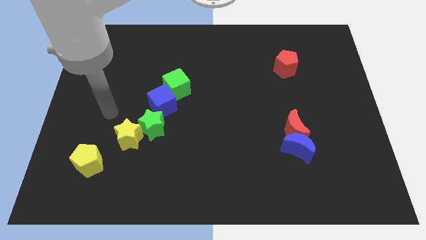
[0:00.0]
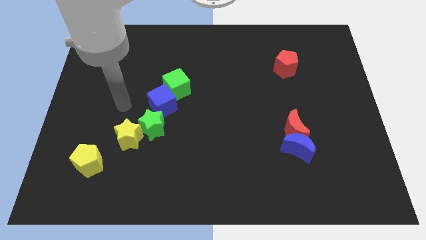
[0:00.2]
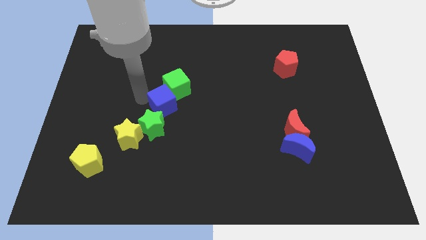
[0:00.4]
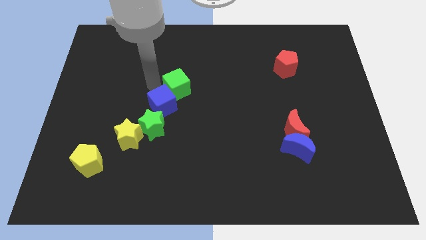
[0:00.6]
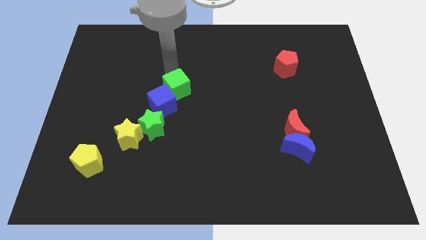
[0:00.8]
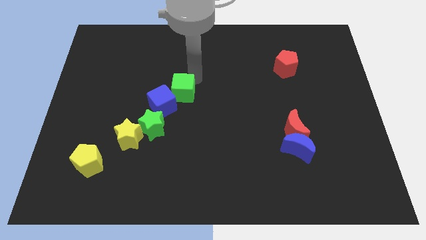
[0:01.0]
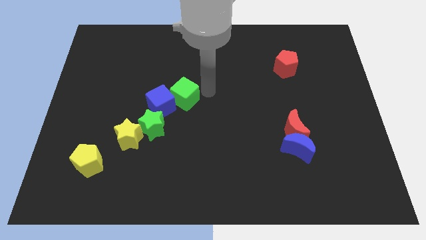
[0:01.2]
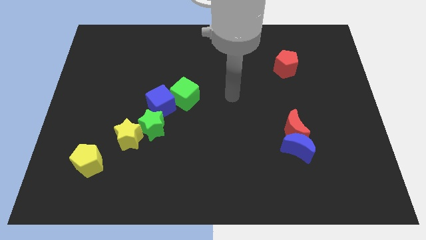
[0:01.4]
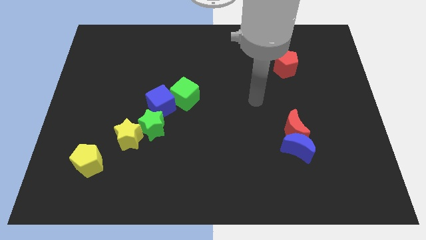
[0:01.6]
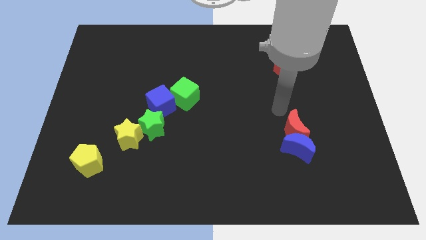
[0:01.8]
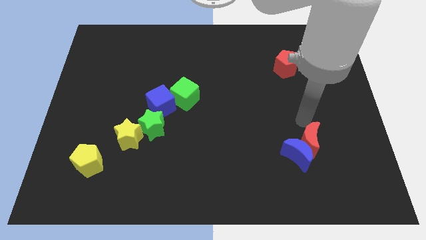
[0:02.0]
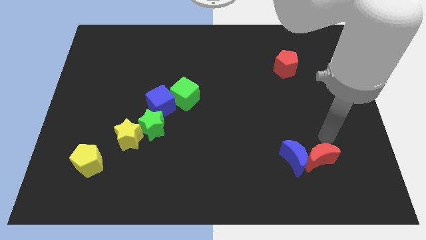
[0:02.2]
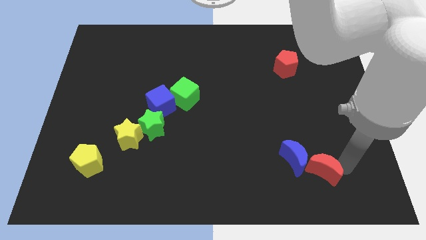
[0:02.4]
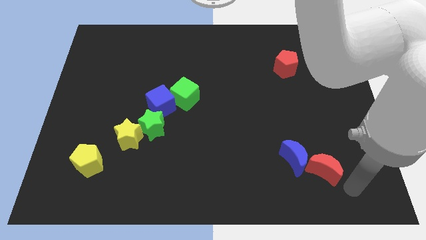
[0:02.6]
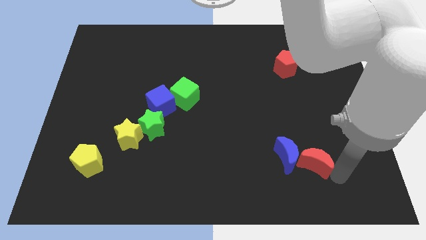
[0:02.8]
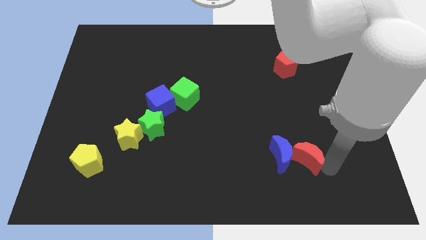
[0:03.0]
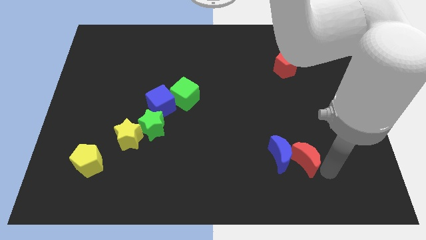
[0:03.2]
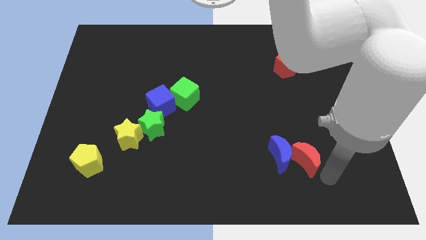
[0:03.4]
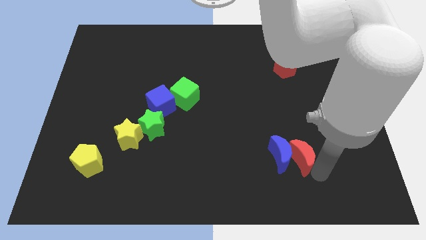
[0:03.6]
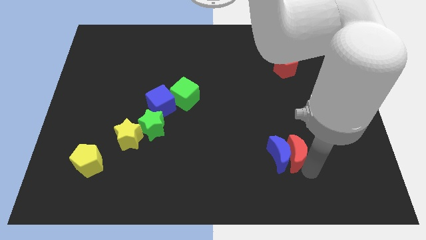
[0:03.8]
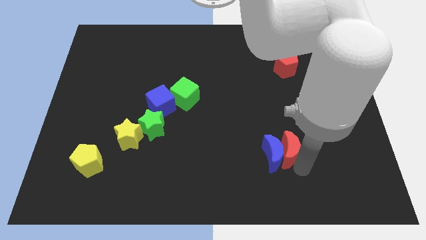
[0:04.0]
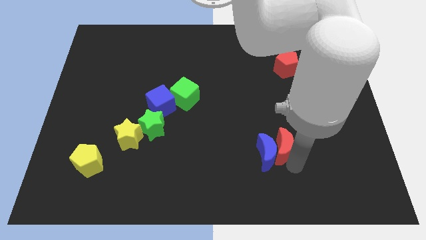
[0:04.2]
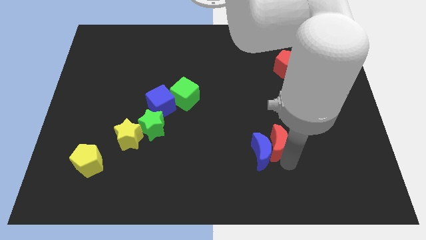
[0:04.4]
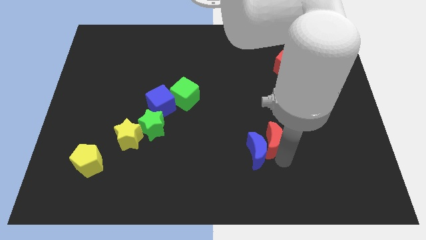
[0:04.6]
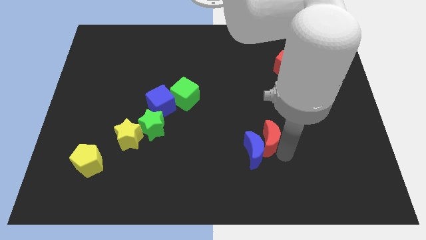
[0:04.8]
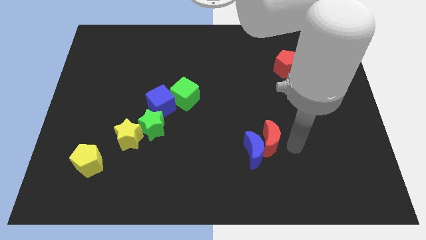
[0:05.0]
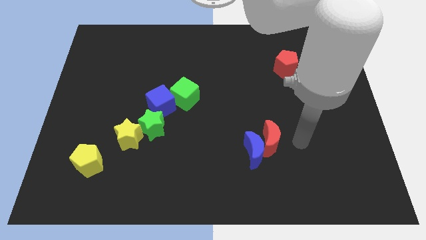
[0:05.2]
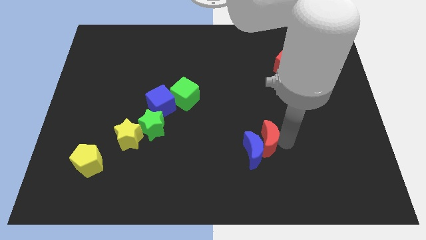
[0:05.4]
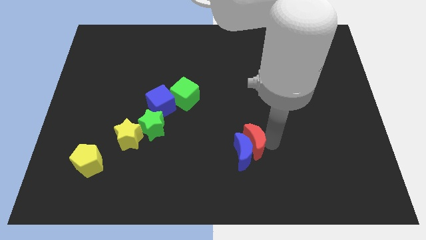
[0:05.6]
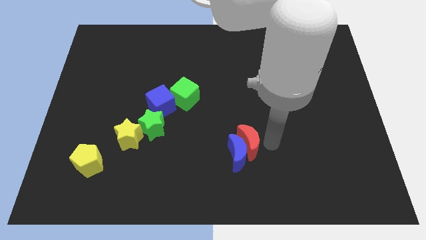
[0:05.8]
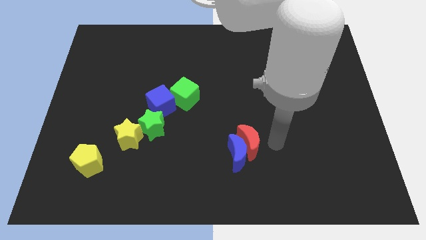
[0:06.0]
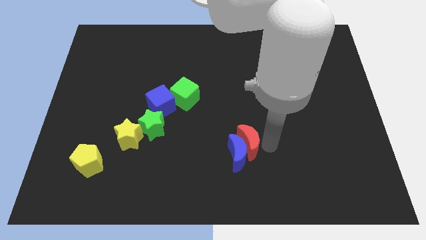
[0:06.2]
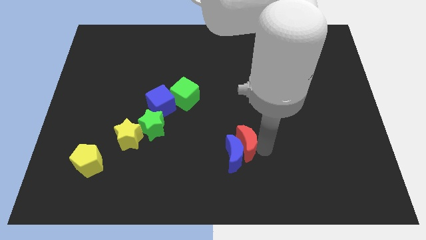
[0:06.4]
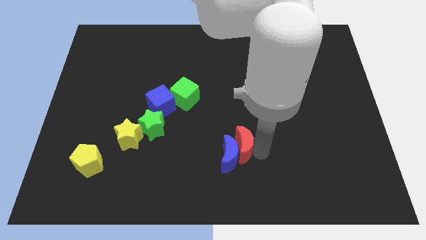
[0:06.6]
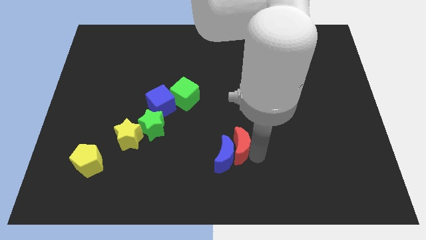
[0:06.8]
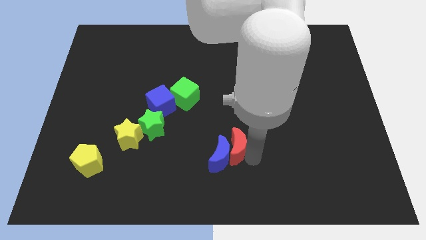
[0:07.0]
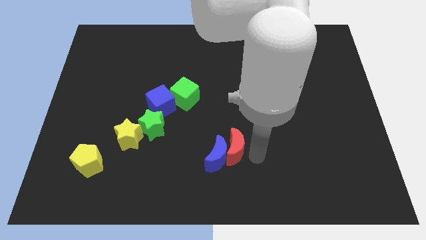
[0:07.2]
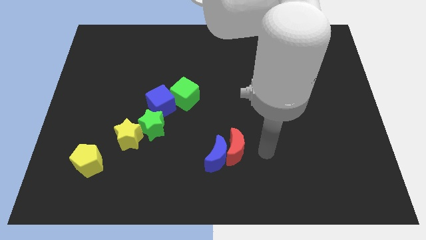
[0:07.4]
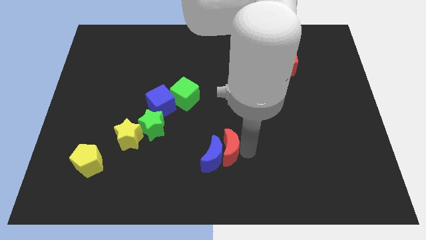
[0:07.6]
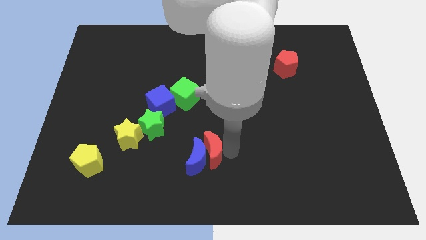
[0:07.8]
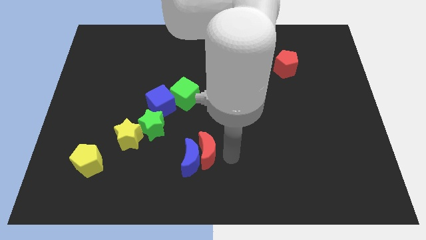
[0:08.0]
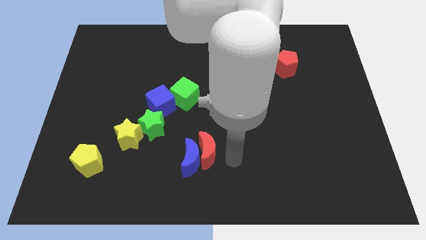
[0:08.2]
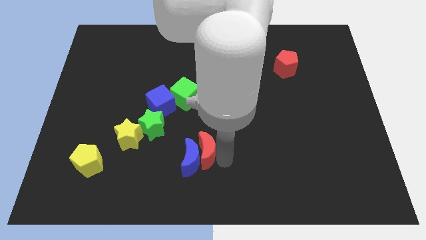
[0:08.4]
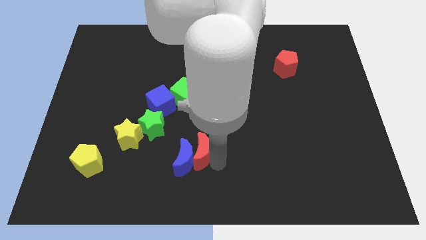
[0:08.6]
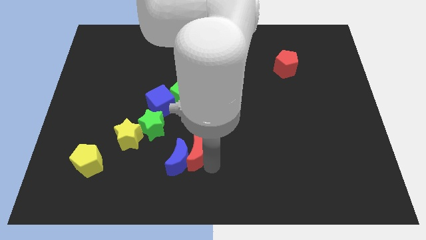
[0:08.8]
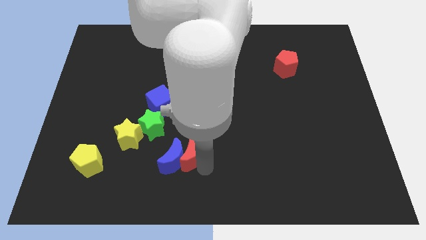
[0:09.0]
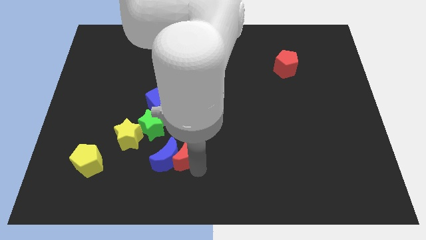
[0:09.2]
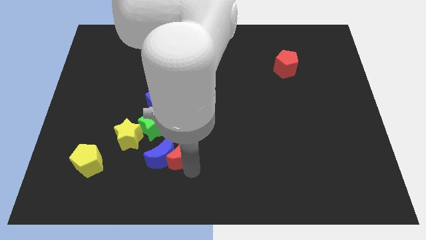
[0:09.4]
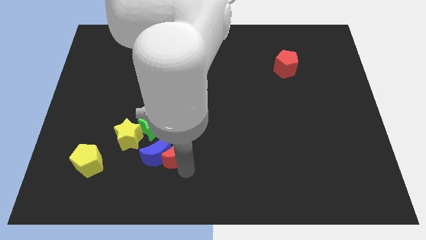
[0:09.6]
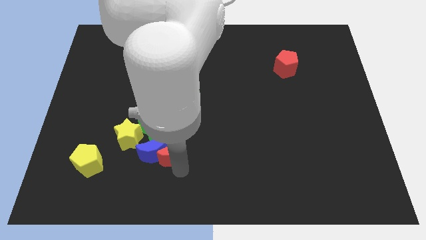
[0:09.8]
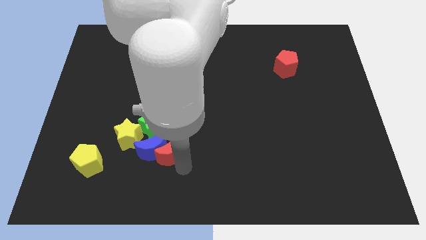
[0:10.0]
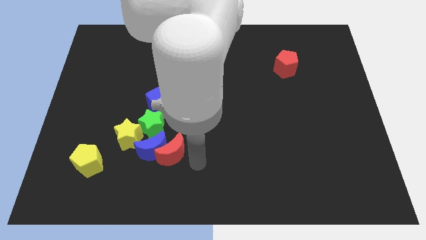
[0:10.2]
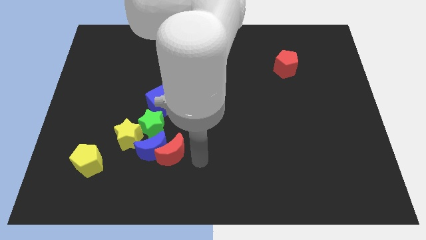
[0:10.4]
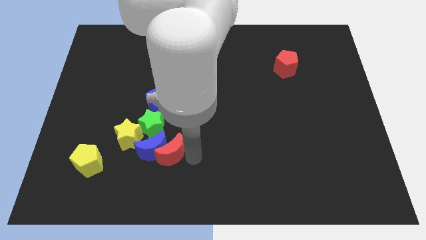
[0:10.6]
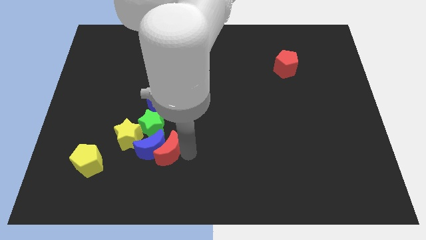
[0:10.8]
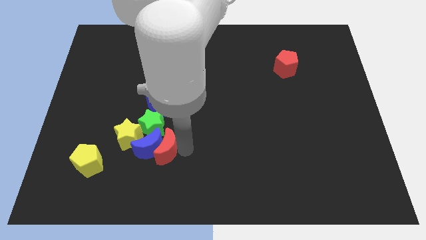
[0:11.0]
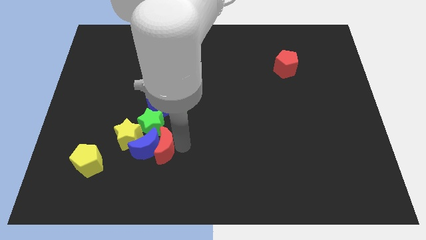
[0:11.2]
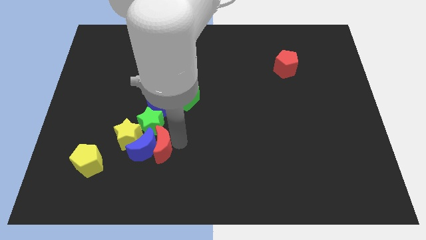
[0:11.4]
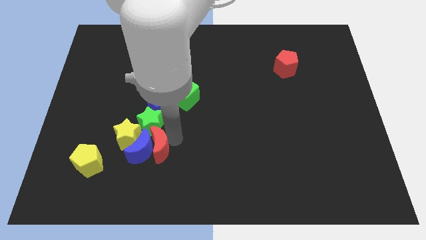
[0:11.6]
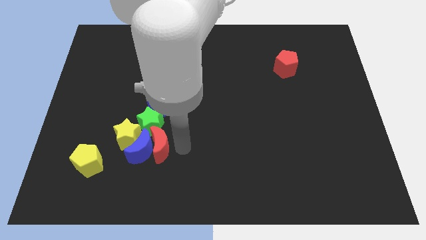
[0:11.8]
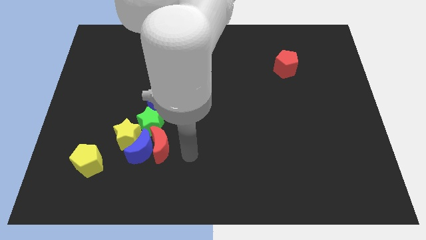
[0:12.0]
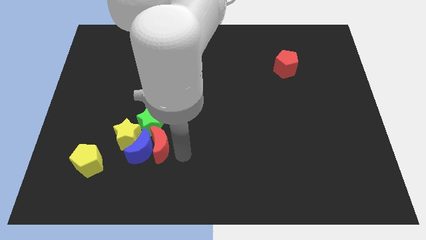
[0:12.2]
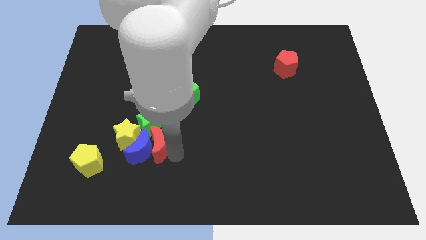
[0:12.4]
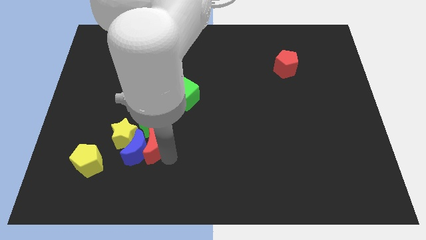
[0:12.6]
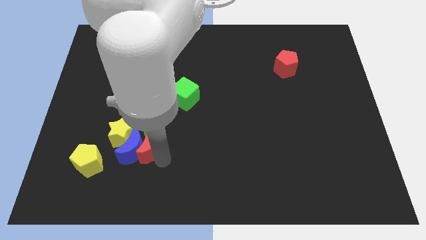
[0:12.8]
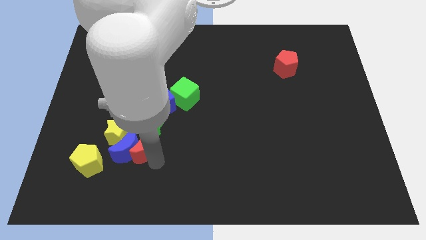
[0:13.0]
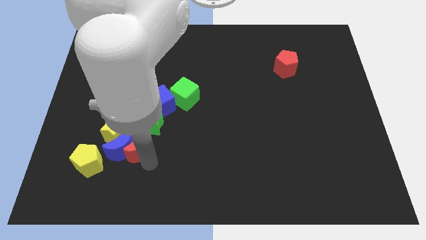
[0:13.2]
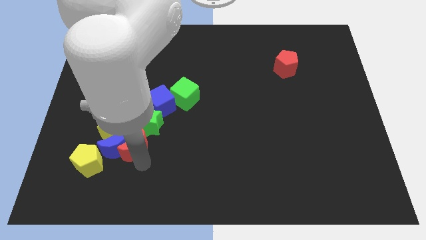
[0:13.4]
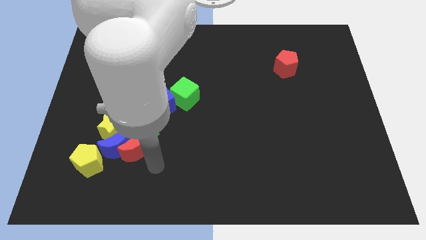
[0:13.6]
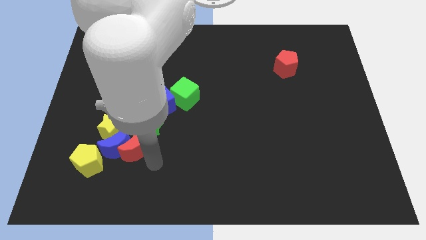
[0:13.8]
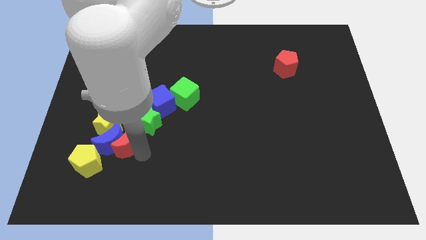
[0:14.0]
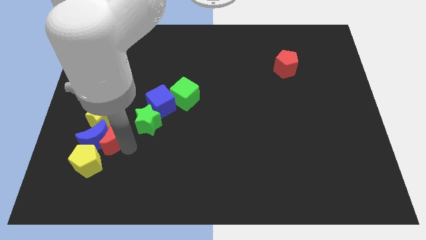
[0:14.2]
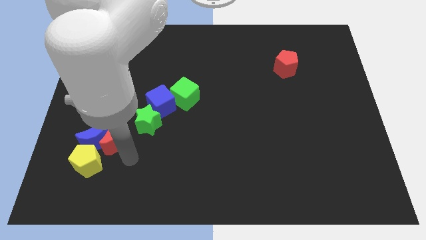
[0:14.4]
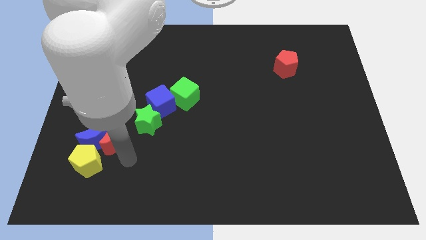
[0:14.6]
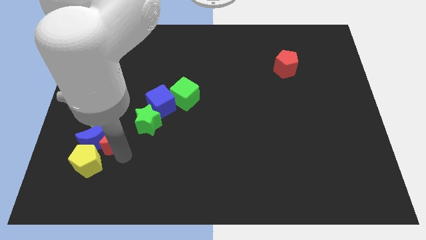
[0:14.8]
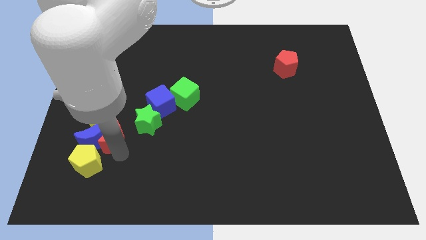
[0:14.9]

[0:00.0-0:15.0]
slide the red moon next to the yellow star
